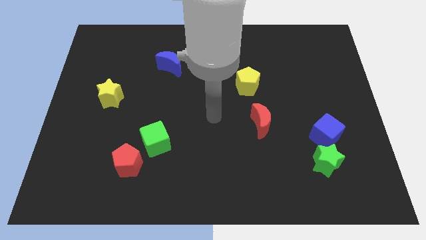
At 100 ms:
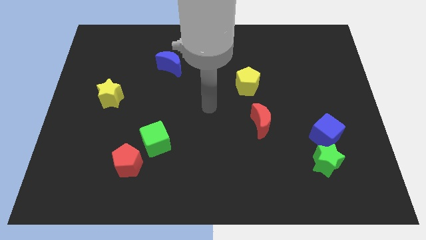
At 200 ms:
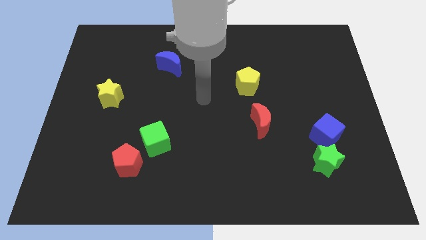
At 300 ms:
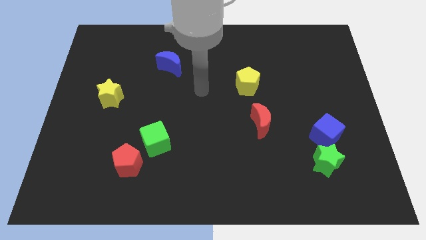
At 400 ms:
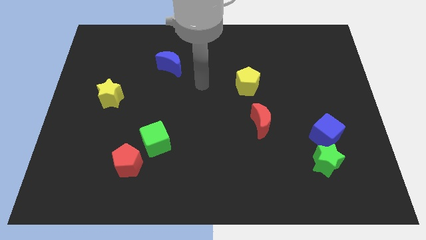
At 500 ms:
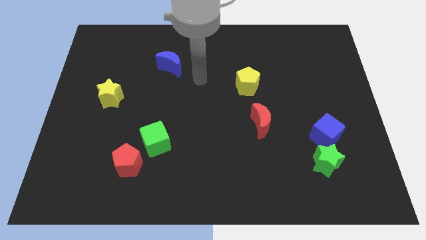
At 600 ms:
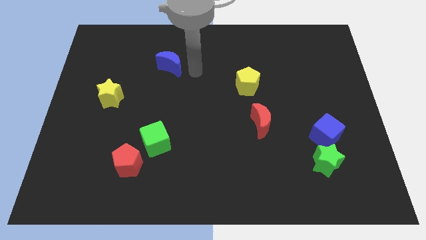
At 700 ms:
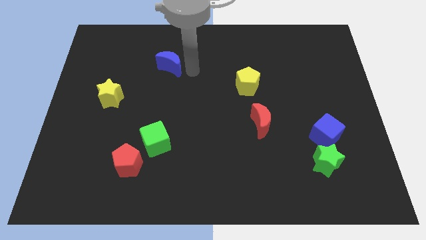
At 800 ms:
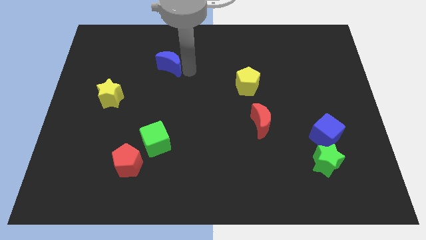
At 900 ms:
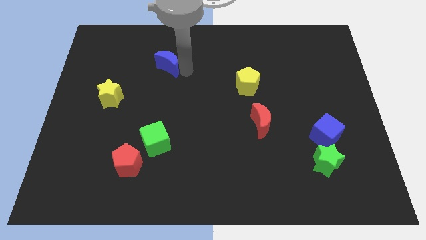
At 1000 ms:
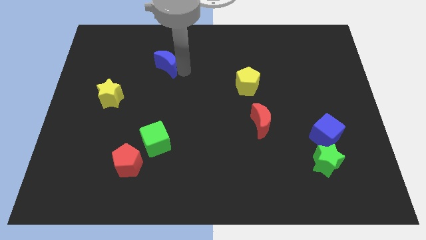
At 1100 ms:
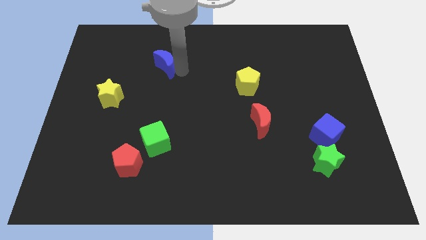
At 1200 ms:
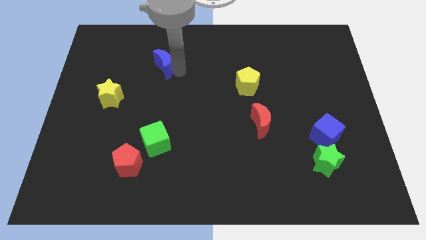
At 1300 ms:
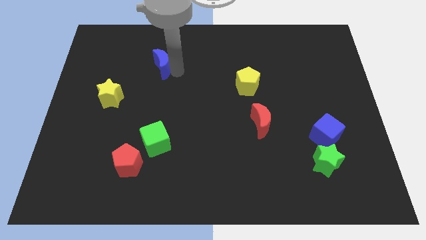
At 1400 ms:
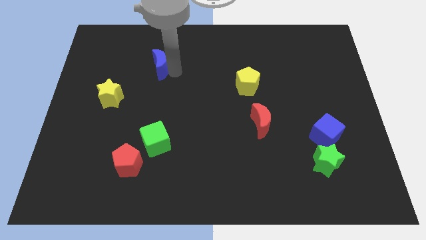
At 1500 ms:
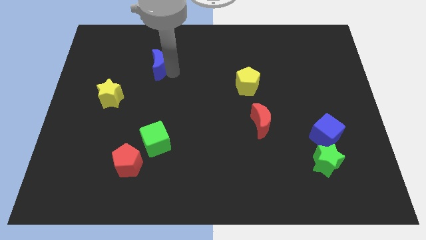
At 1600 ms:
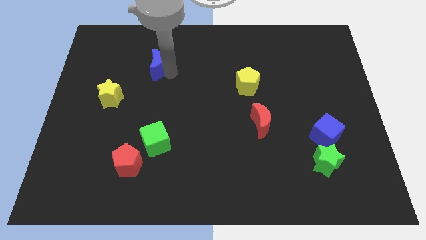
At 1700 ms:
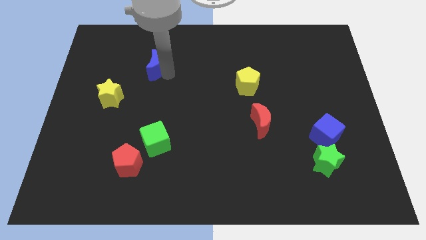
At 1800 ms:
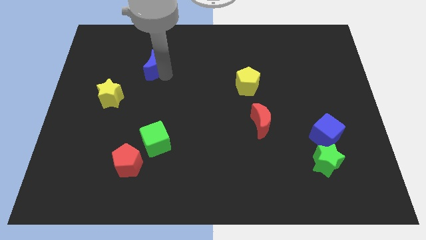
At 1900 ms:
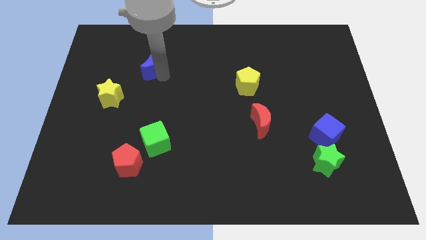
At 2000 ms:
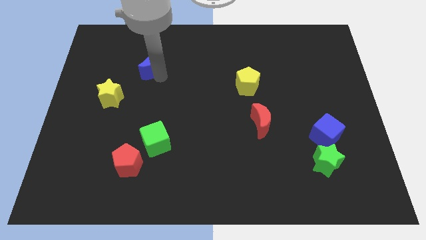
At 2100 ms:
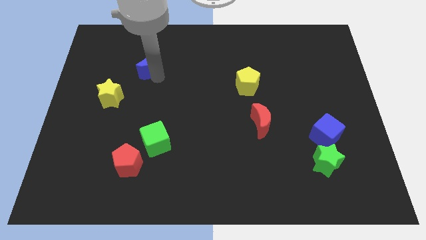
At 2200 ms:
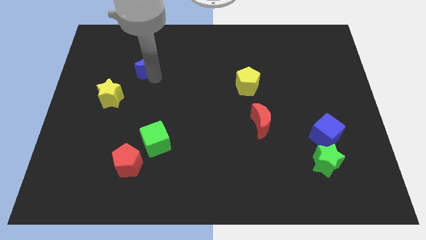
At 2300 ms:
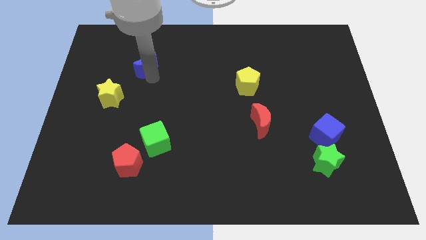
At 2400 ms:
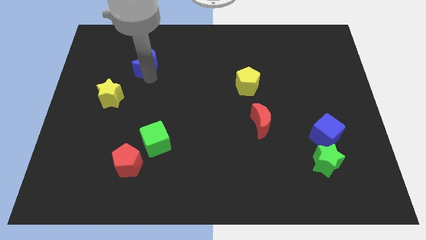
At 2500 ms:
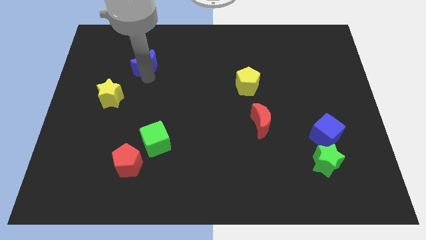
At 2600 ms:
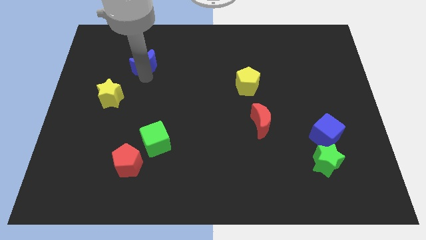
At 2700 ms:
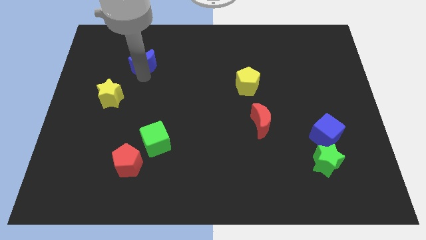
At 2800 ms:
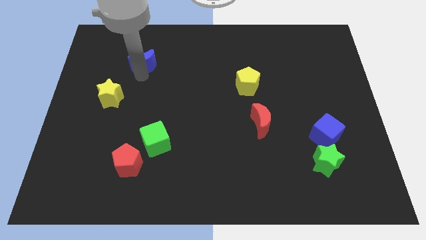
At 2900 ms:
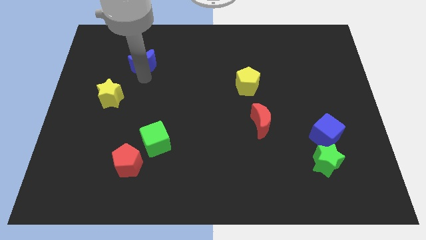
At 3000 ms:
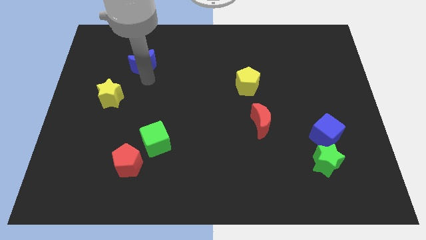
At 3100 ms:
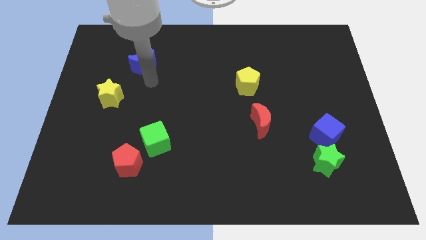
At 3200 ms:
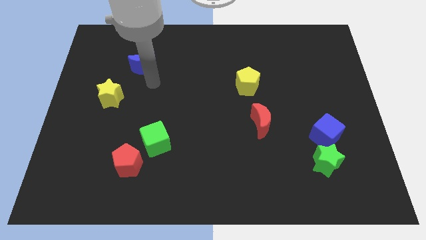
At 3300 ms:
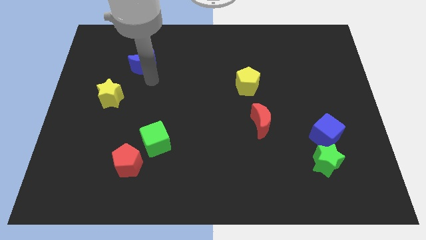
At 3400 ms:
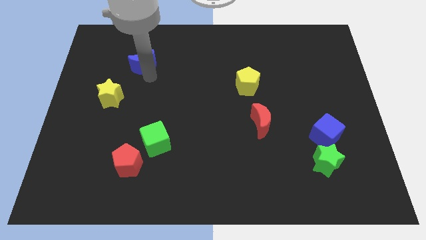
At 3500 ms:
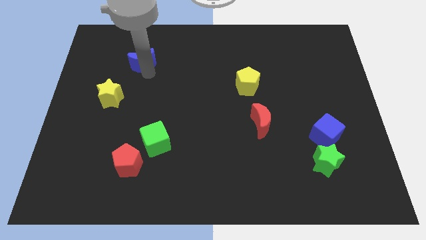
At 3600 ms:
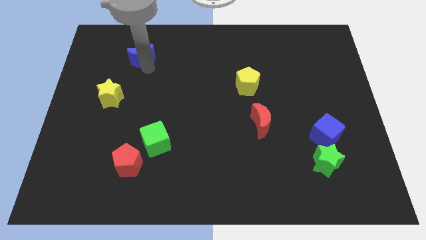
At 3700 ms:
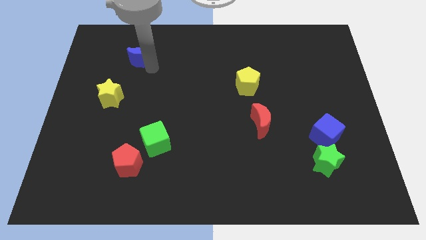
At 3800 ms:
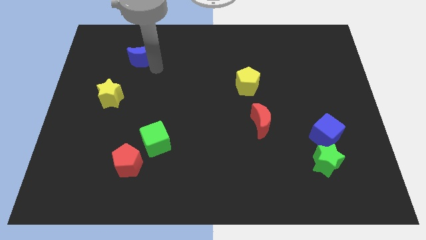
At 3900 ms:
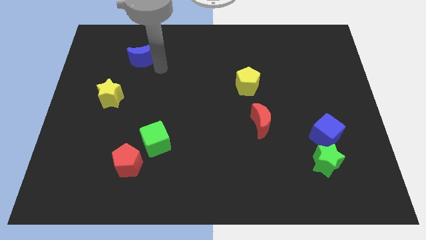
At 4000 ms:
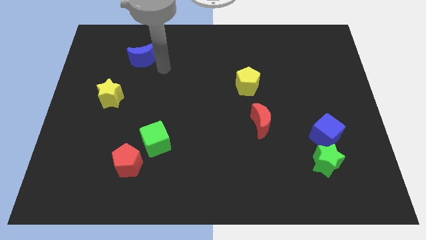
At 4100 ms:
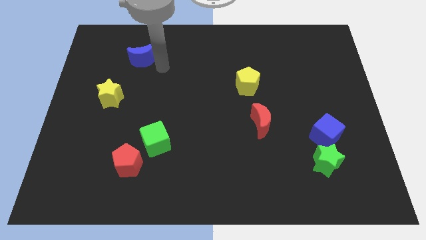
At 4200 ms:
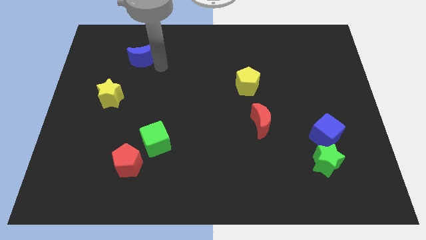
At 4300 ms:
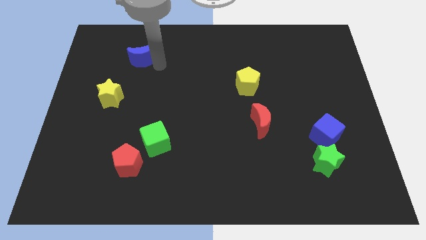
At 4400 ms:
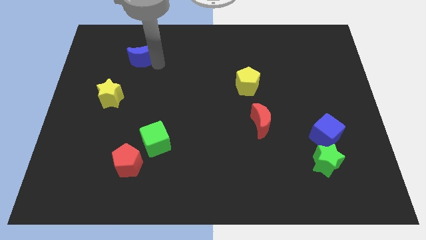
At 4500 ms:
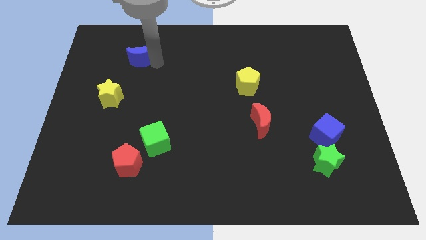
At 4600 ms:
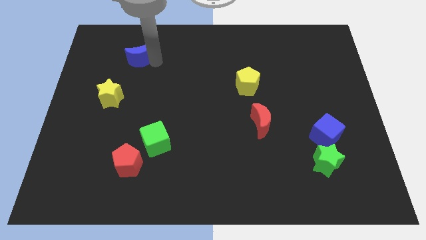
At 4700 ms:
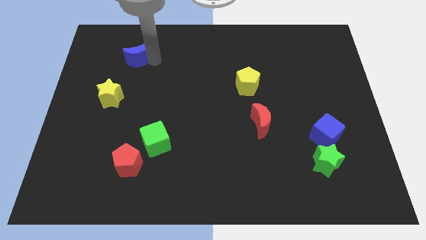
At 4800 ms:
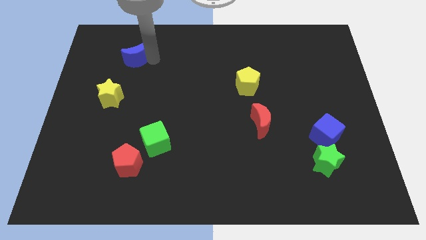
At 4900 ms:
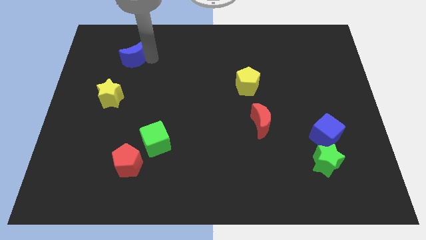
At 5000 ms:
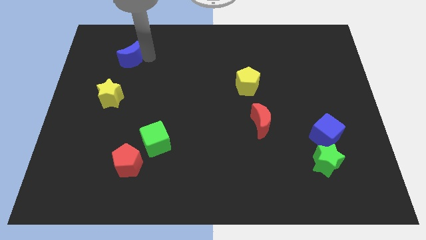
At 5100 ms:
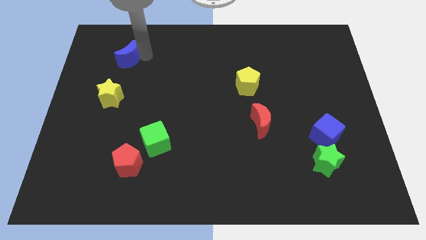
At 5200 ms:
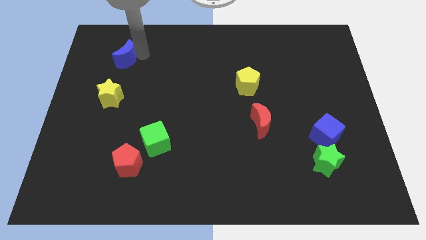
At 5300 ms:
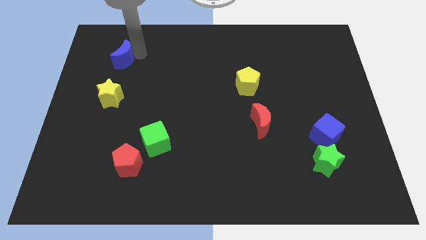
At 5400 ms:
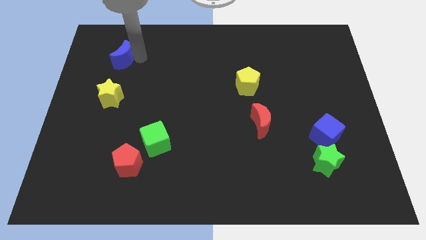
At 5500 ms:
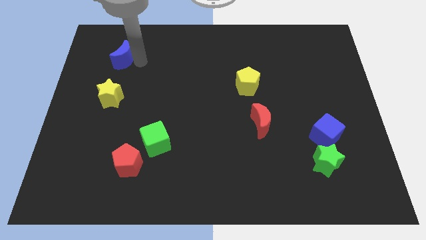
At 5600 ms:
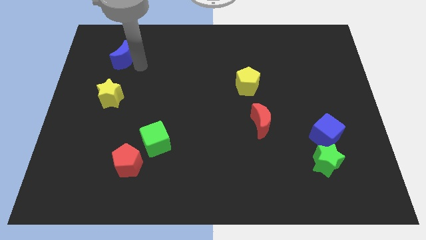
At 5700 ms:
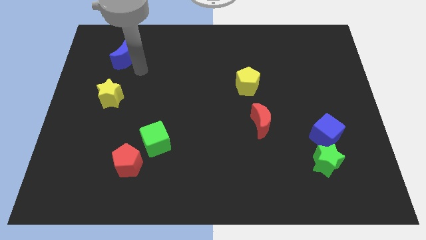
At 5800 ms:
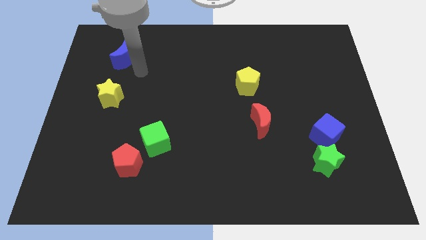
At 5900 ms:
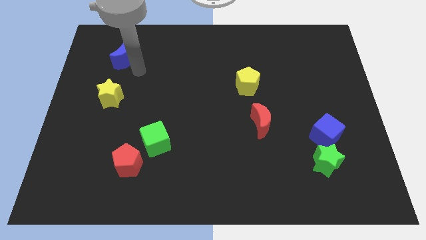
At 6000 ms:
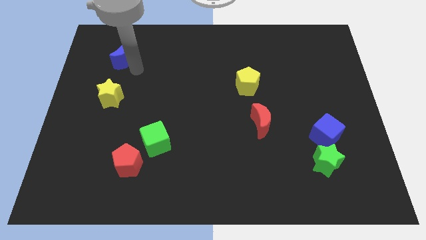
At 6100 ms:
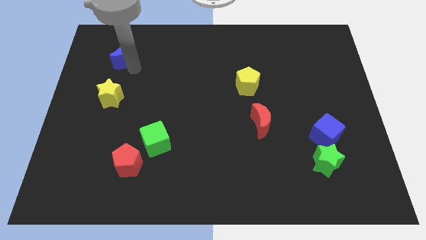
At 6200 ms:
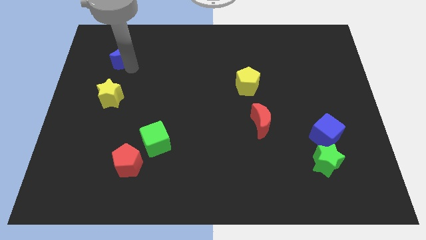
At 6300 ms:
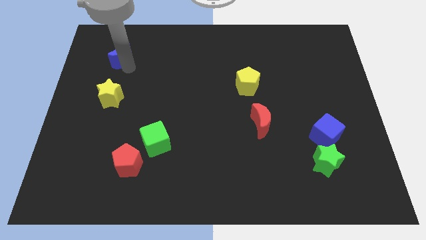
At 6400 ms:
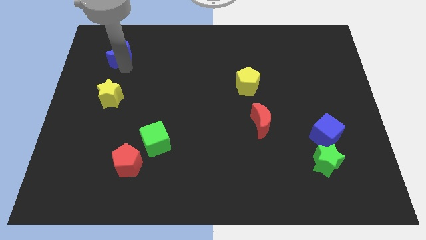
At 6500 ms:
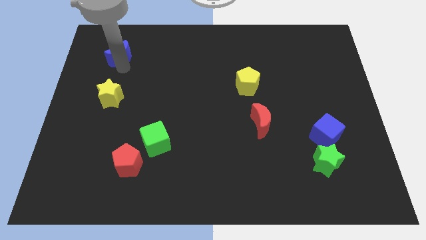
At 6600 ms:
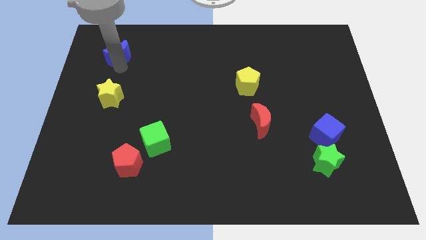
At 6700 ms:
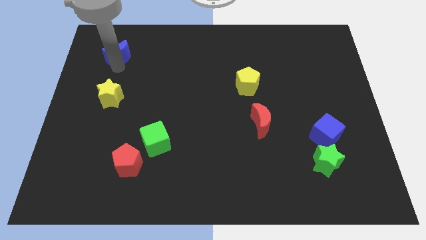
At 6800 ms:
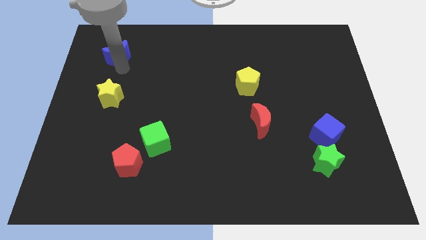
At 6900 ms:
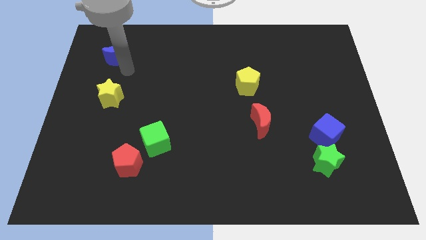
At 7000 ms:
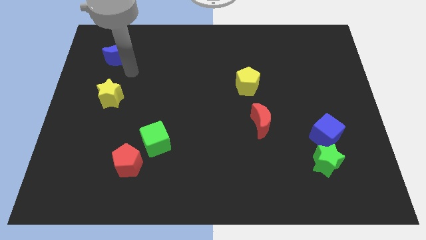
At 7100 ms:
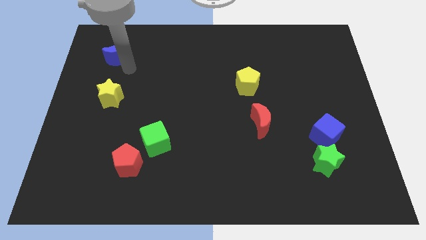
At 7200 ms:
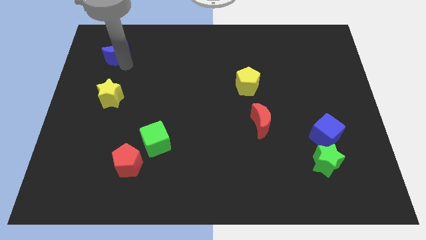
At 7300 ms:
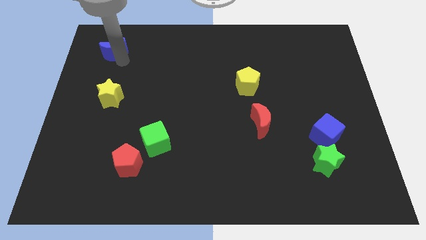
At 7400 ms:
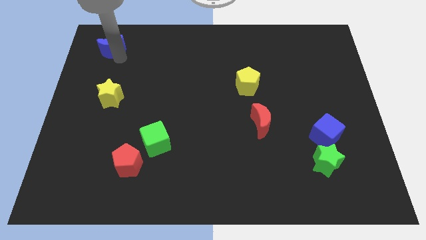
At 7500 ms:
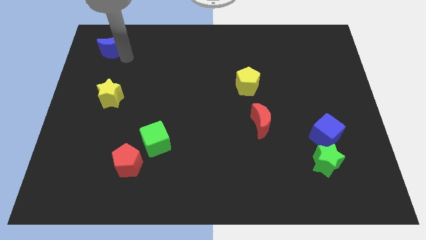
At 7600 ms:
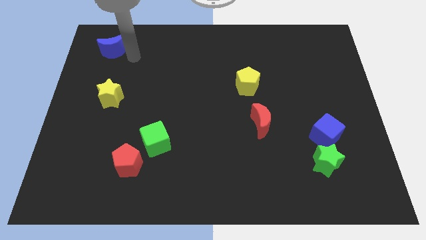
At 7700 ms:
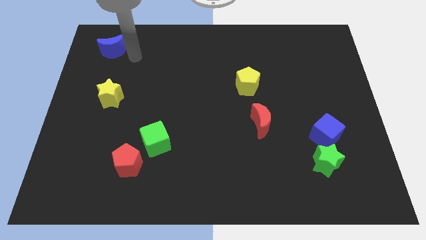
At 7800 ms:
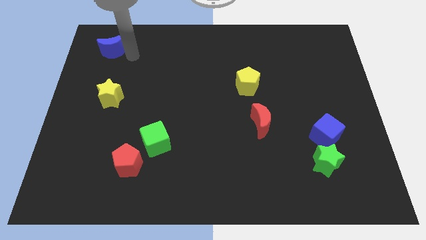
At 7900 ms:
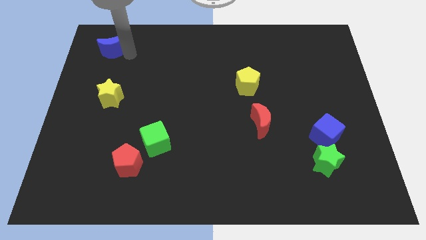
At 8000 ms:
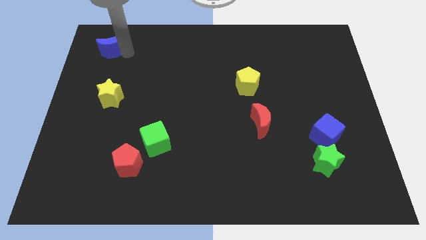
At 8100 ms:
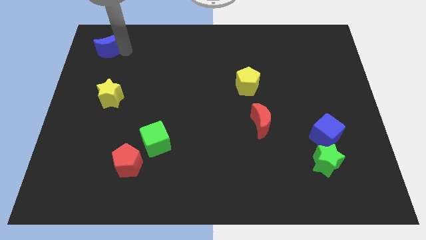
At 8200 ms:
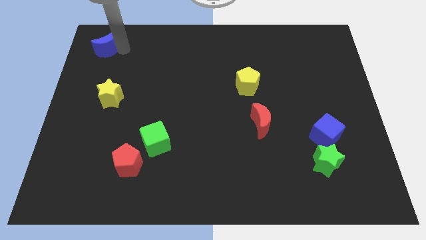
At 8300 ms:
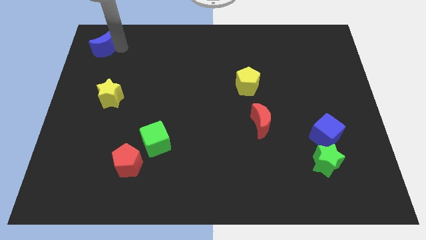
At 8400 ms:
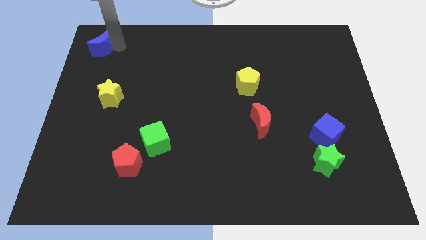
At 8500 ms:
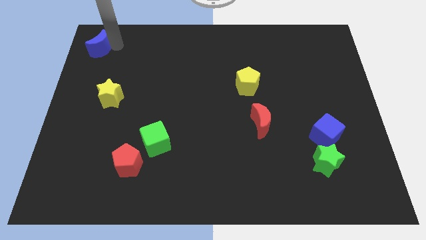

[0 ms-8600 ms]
slide the blue moon to the top left
